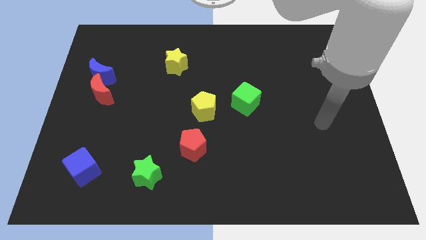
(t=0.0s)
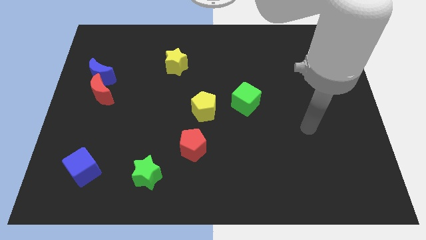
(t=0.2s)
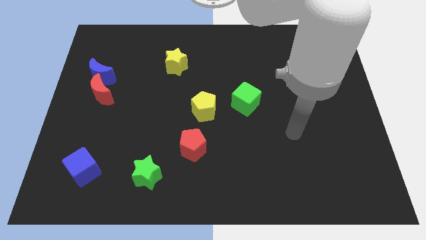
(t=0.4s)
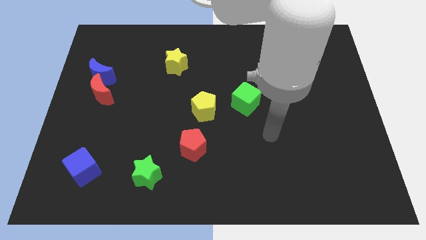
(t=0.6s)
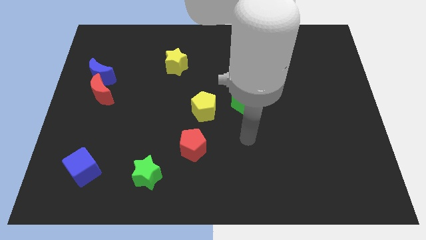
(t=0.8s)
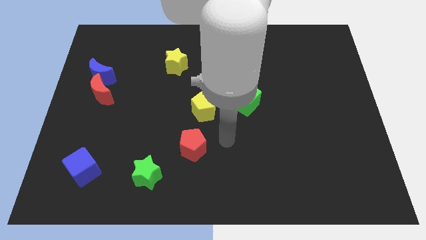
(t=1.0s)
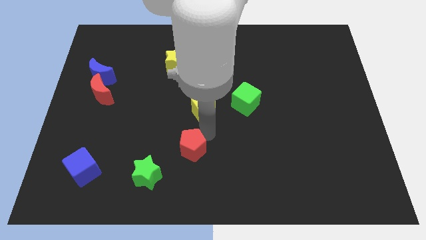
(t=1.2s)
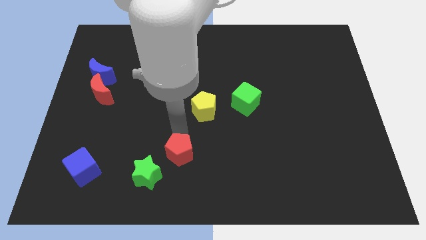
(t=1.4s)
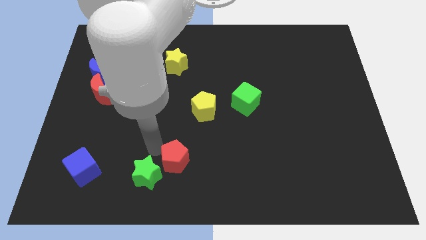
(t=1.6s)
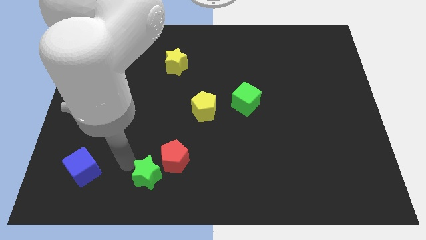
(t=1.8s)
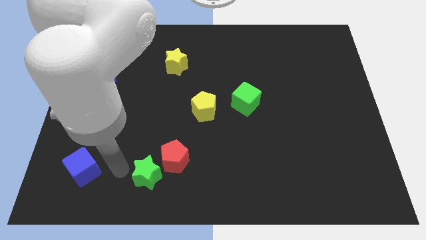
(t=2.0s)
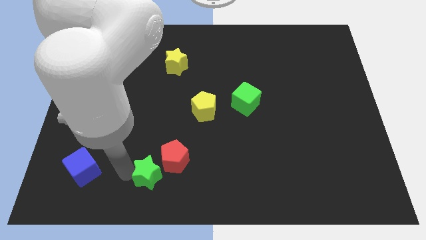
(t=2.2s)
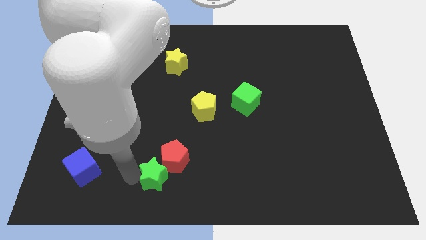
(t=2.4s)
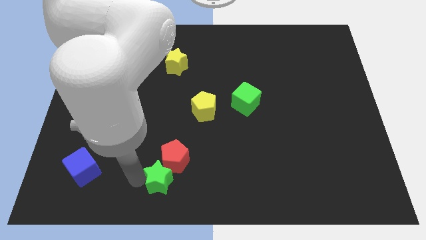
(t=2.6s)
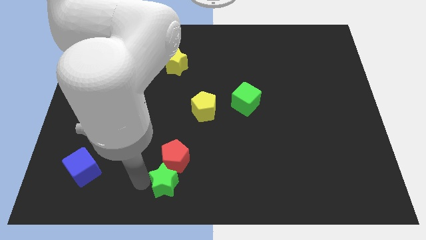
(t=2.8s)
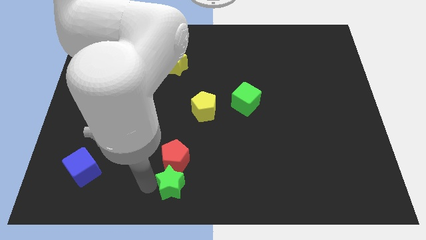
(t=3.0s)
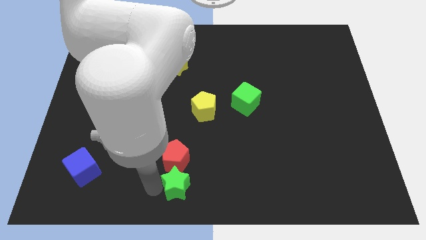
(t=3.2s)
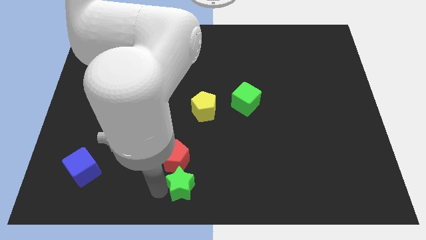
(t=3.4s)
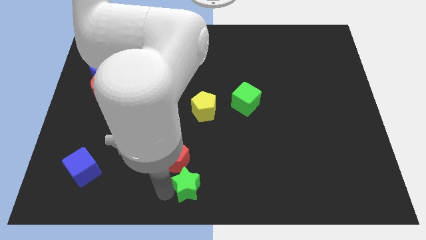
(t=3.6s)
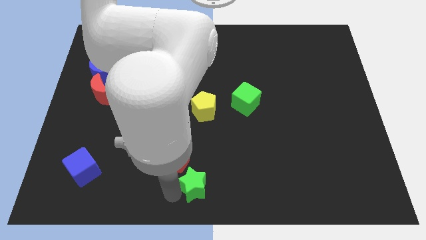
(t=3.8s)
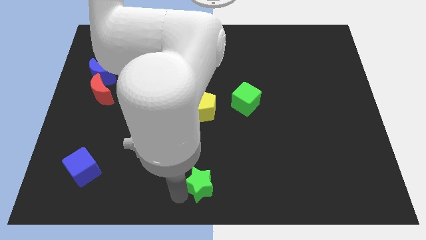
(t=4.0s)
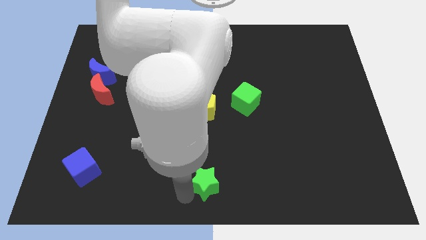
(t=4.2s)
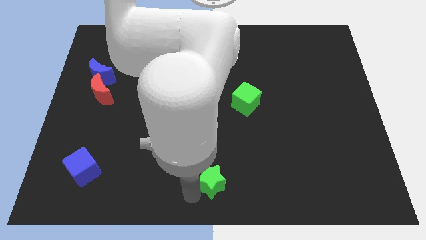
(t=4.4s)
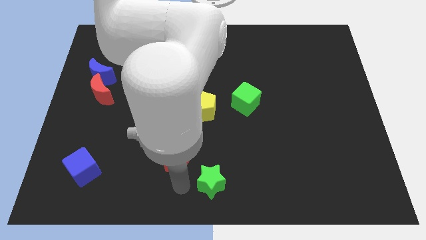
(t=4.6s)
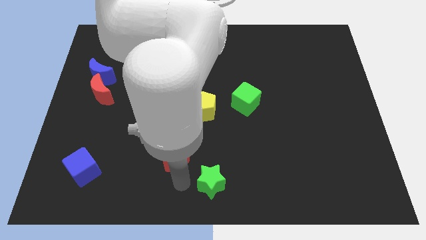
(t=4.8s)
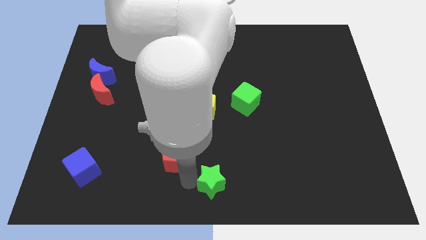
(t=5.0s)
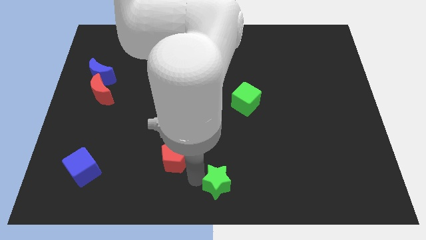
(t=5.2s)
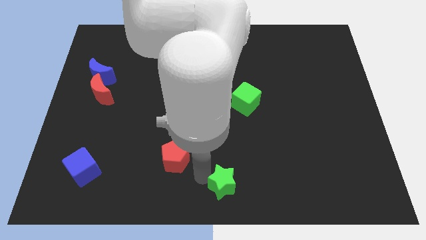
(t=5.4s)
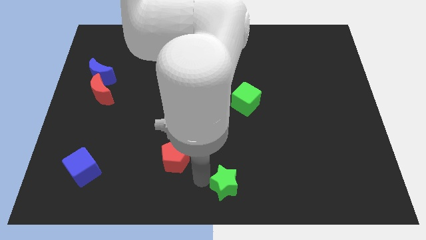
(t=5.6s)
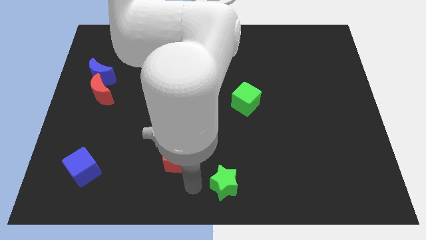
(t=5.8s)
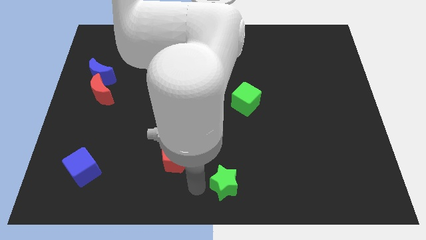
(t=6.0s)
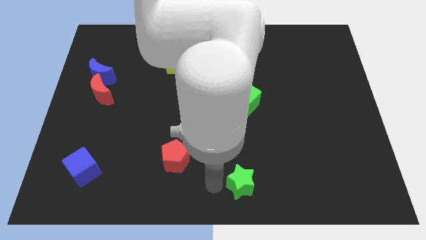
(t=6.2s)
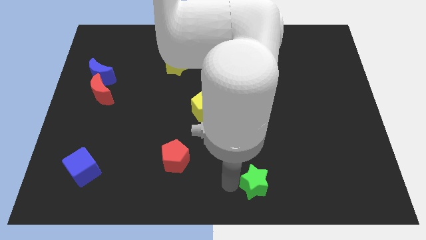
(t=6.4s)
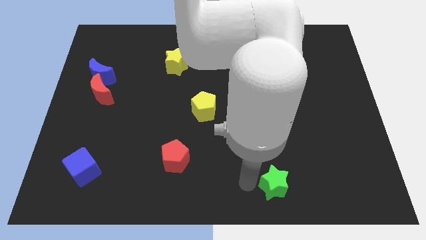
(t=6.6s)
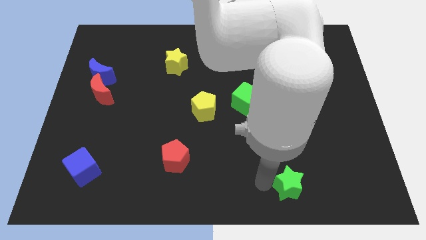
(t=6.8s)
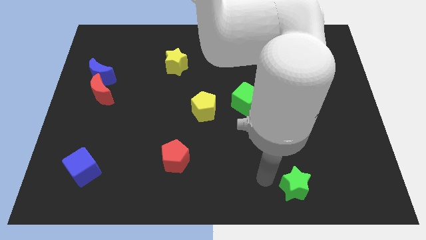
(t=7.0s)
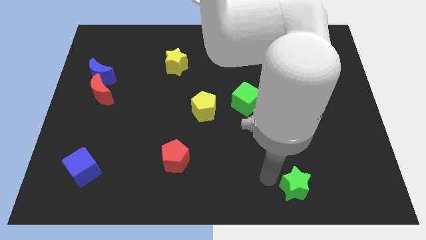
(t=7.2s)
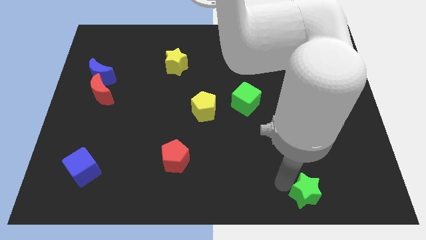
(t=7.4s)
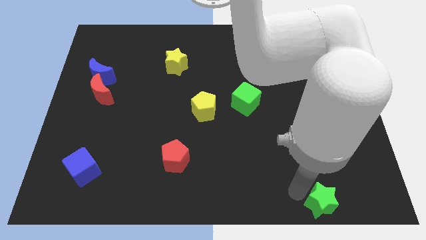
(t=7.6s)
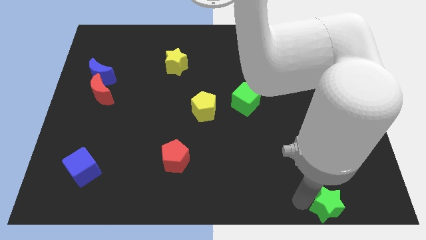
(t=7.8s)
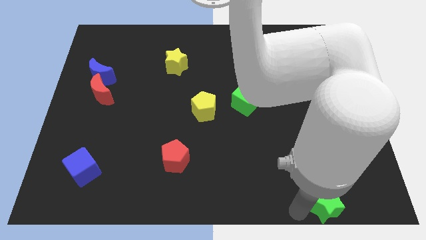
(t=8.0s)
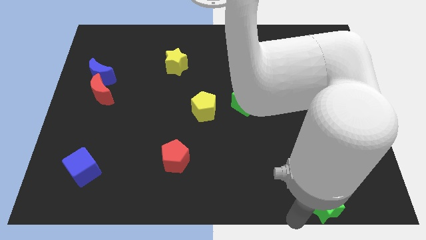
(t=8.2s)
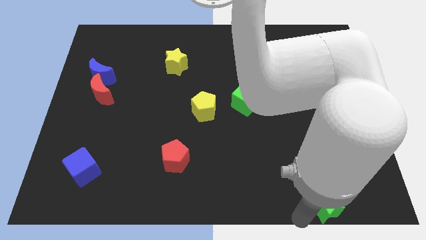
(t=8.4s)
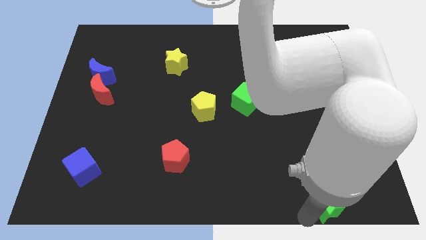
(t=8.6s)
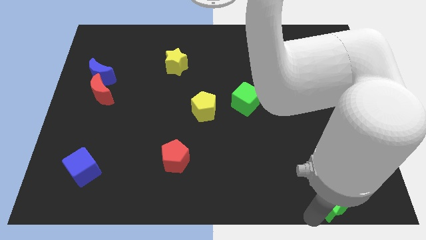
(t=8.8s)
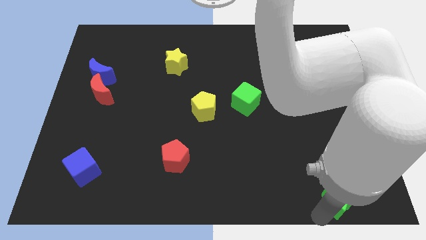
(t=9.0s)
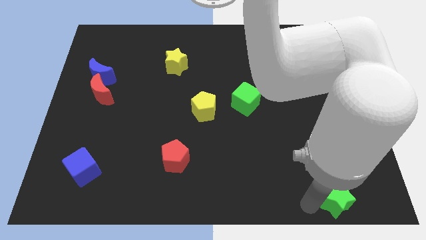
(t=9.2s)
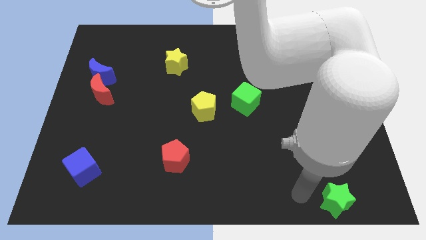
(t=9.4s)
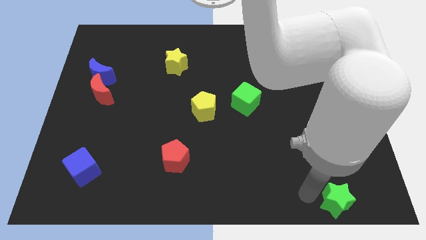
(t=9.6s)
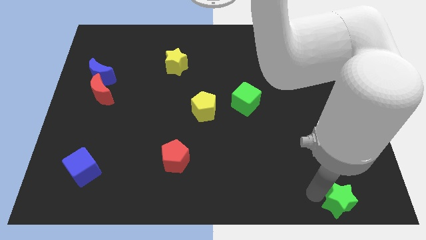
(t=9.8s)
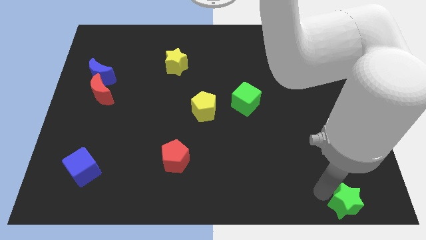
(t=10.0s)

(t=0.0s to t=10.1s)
slide the green star to the bottom right corner

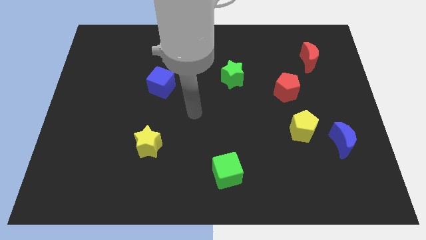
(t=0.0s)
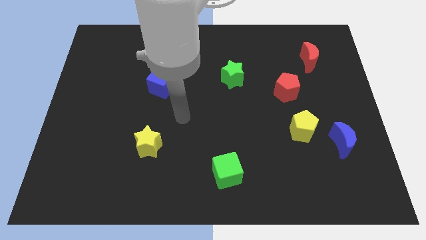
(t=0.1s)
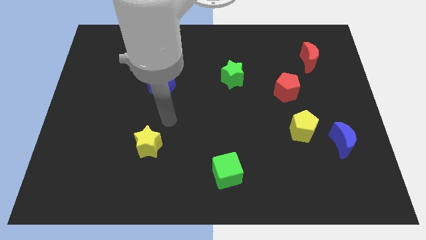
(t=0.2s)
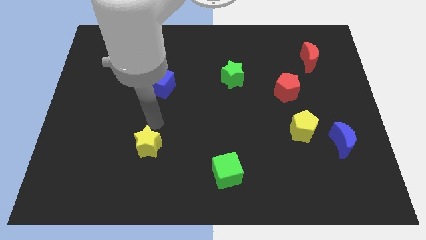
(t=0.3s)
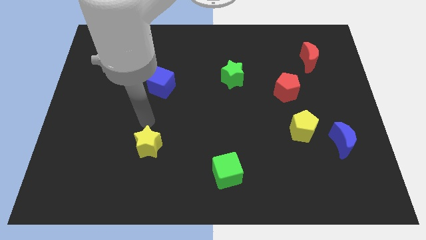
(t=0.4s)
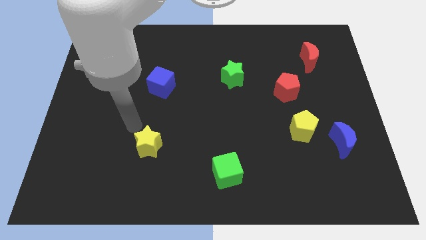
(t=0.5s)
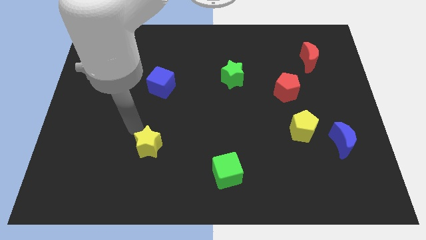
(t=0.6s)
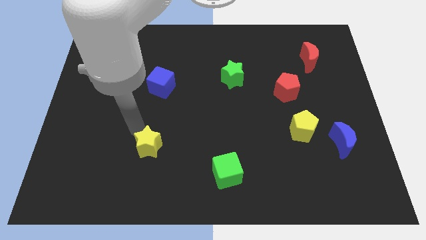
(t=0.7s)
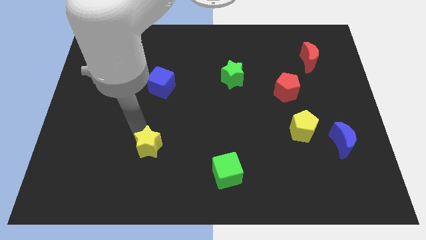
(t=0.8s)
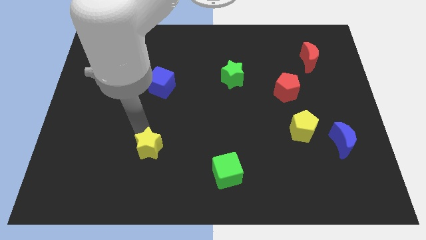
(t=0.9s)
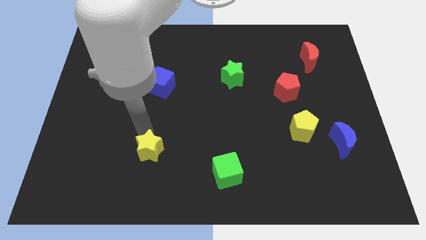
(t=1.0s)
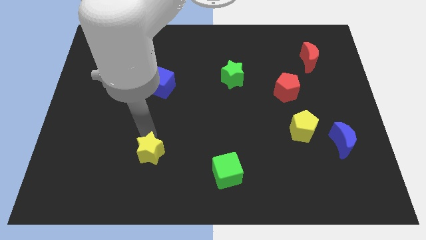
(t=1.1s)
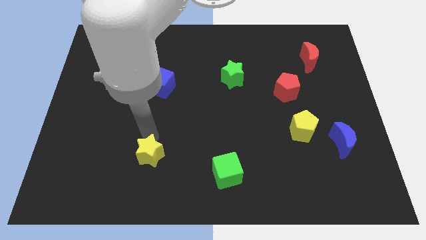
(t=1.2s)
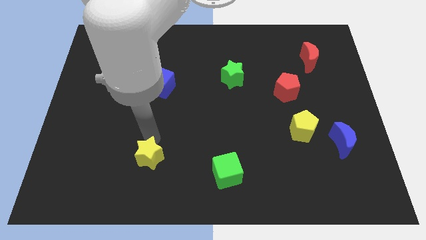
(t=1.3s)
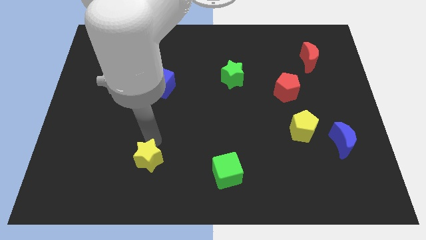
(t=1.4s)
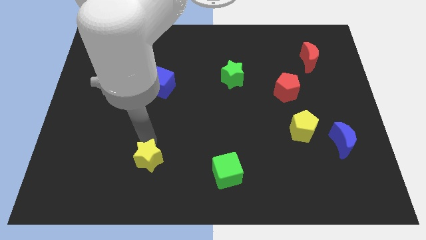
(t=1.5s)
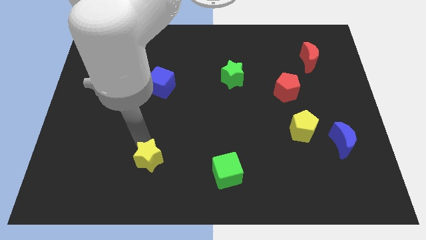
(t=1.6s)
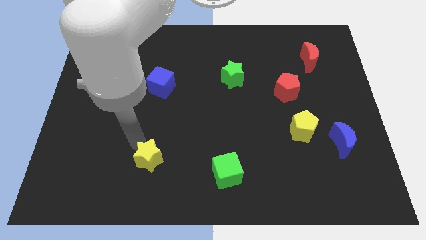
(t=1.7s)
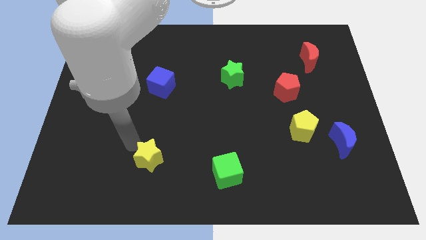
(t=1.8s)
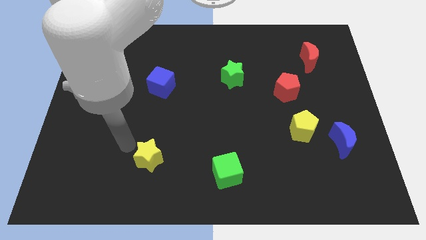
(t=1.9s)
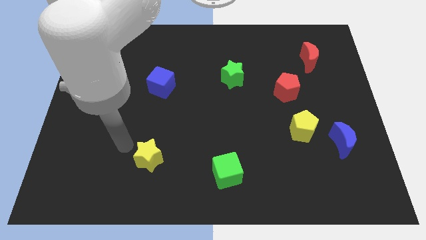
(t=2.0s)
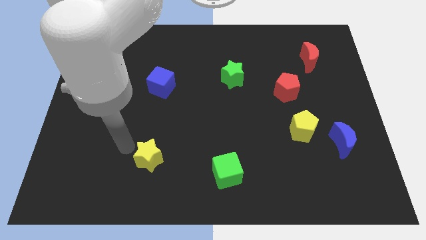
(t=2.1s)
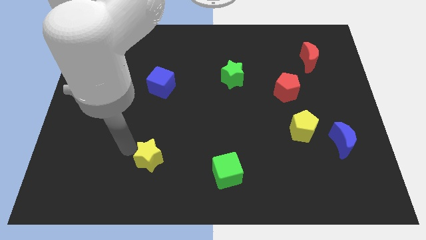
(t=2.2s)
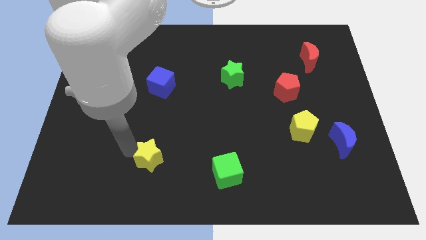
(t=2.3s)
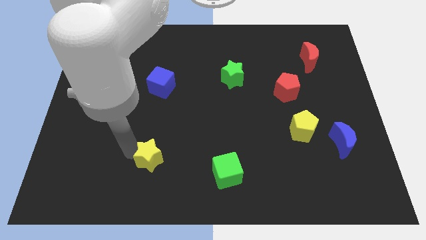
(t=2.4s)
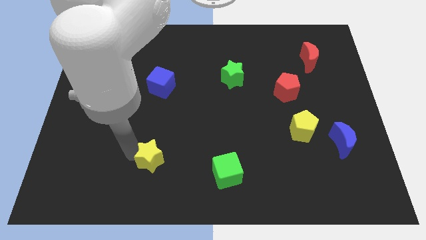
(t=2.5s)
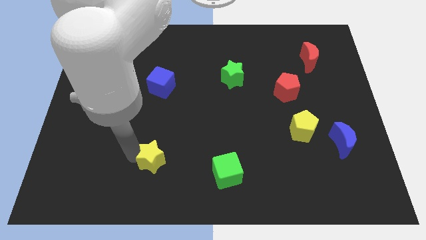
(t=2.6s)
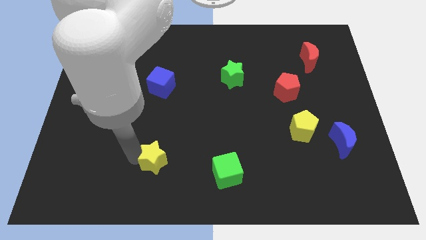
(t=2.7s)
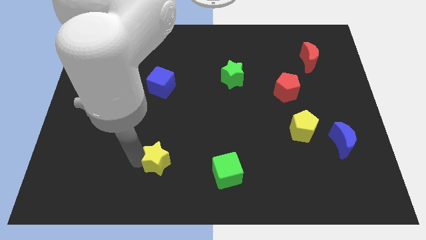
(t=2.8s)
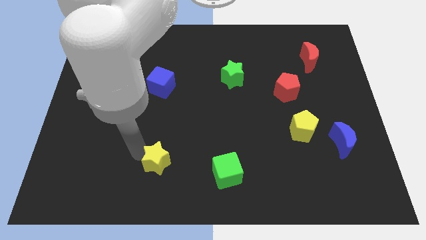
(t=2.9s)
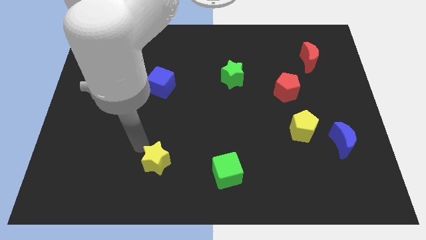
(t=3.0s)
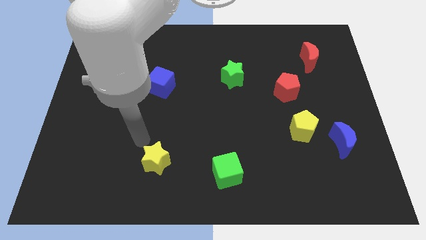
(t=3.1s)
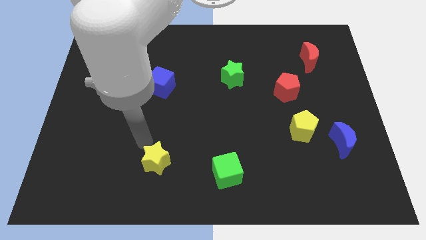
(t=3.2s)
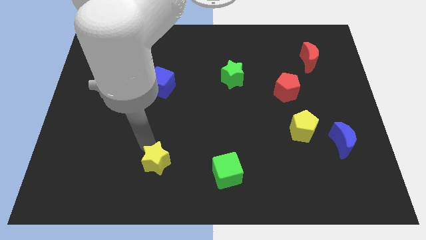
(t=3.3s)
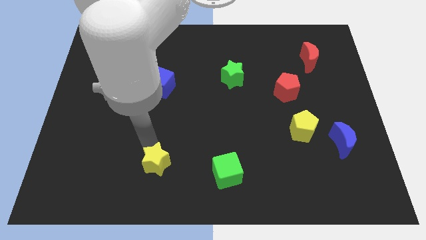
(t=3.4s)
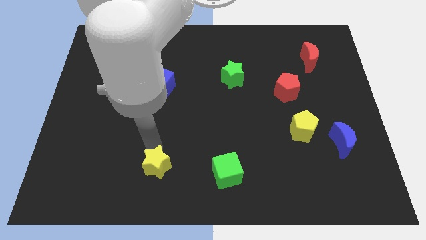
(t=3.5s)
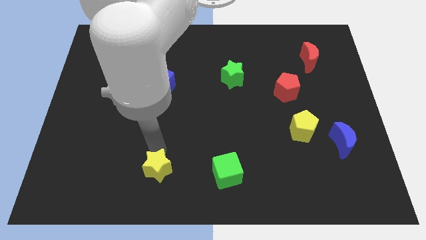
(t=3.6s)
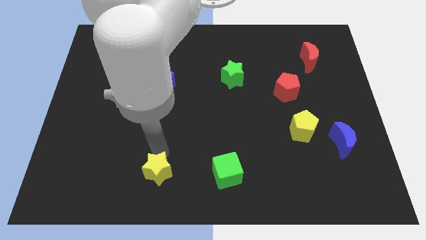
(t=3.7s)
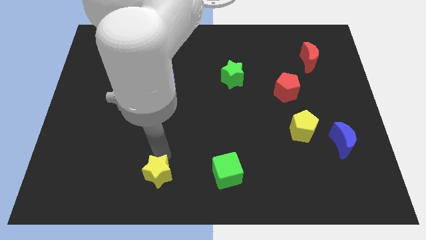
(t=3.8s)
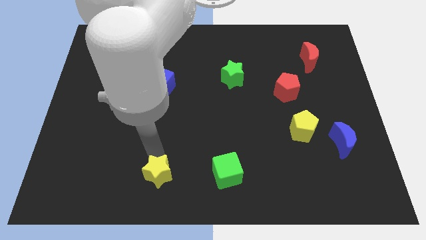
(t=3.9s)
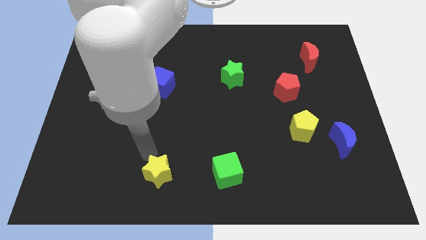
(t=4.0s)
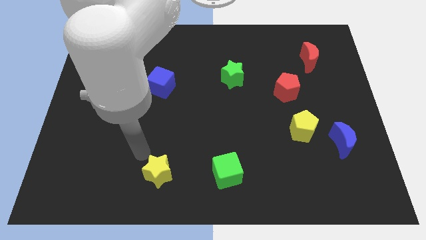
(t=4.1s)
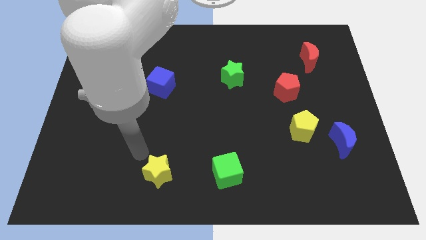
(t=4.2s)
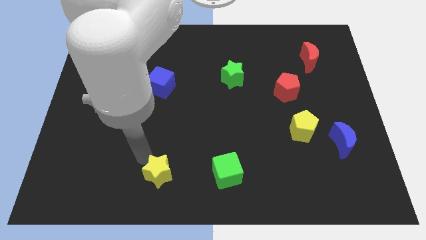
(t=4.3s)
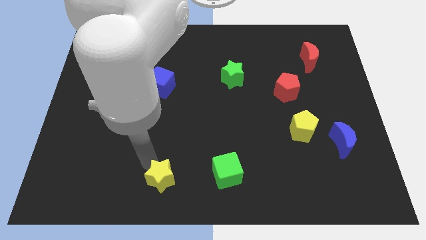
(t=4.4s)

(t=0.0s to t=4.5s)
put the yellow star to the bottom side
